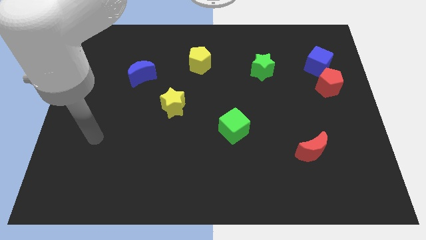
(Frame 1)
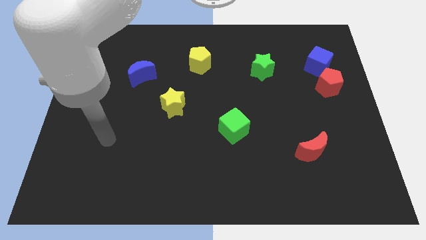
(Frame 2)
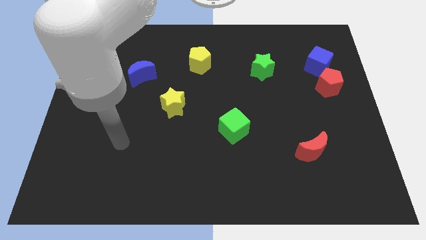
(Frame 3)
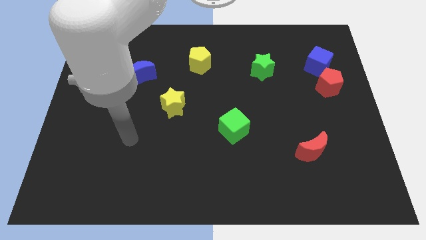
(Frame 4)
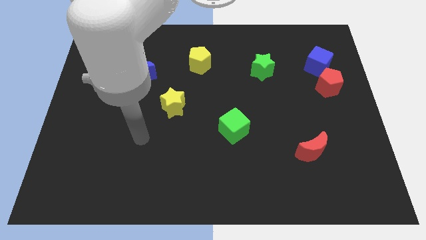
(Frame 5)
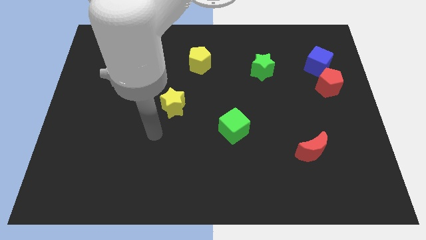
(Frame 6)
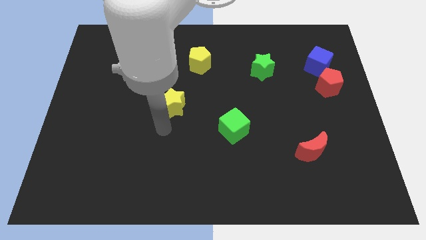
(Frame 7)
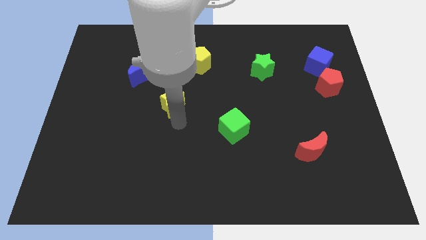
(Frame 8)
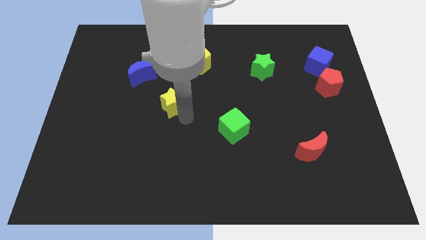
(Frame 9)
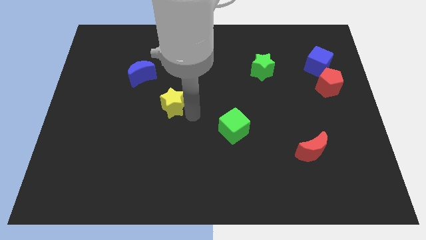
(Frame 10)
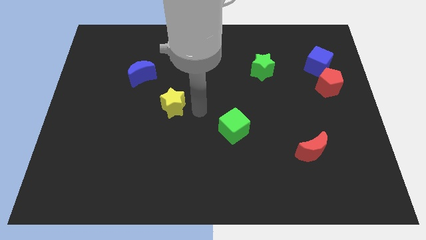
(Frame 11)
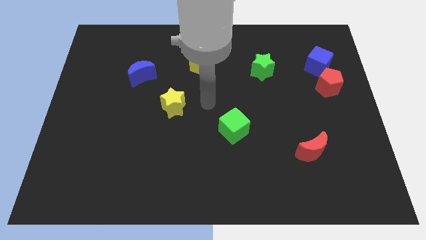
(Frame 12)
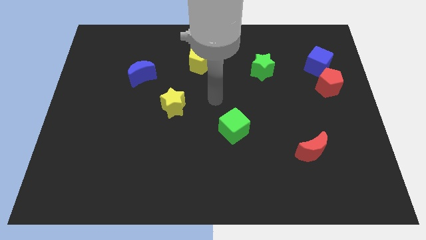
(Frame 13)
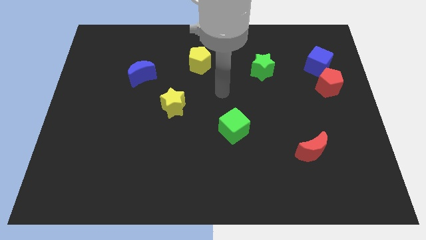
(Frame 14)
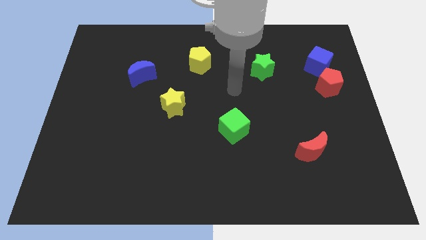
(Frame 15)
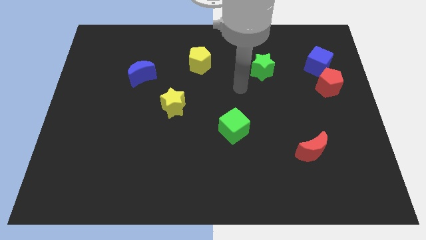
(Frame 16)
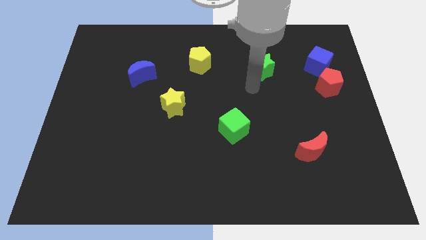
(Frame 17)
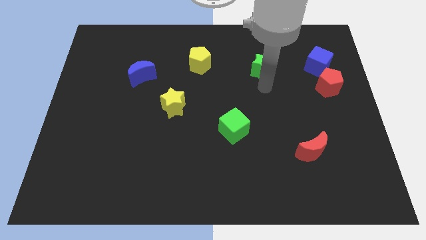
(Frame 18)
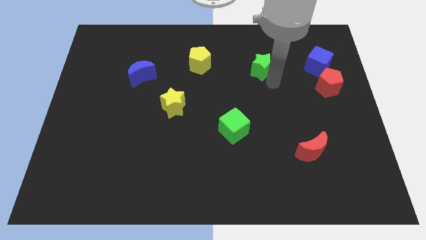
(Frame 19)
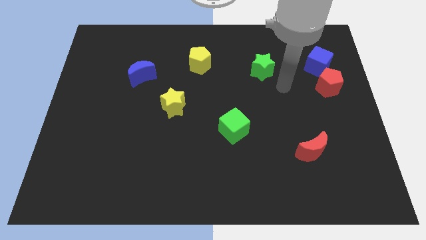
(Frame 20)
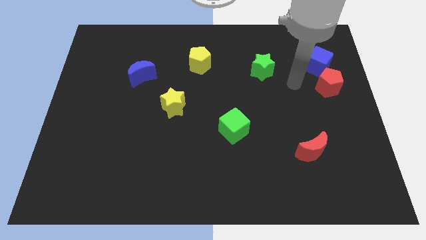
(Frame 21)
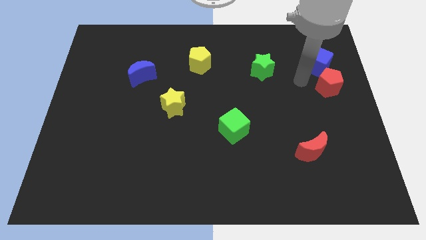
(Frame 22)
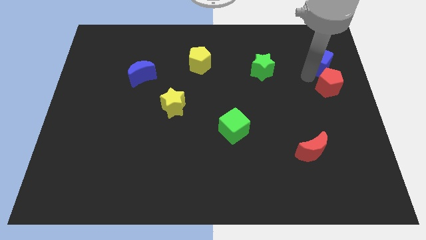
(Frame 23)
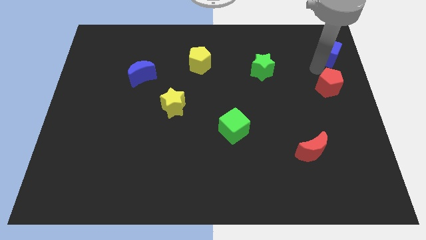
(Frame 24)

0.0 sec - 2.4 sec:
move the red pentagon away from the blue cube

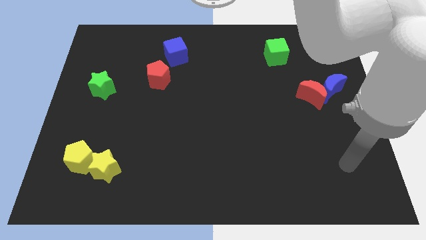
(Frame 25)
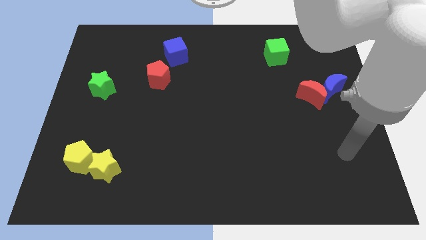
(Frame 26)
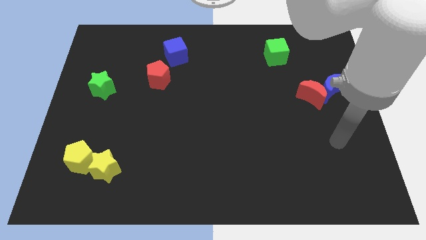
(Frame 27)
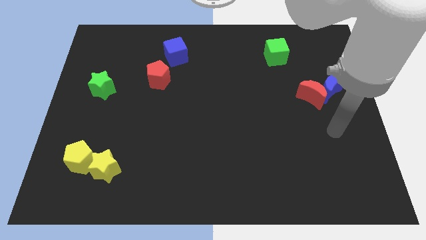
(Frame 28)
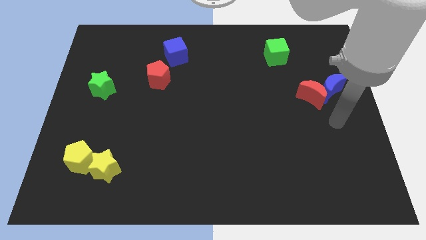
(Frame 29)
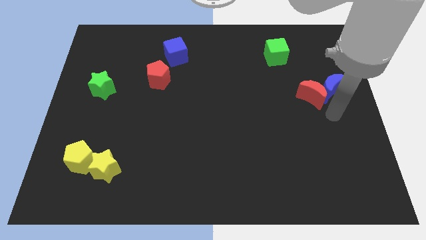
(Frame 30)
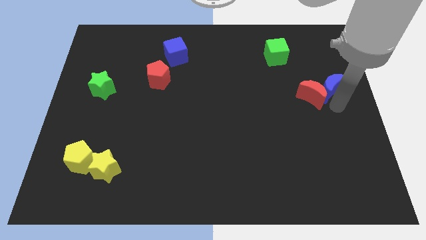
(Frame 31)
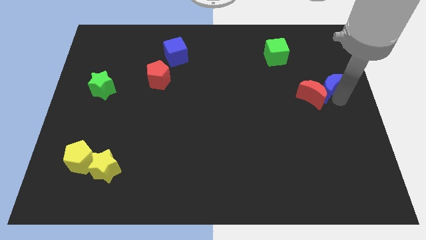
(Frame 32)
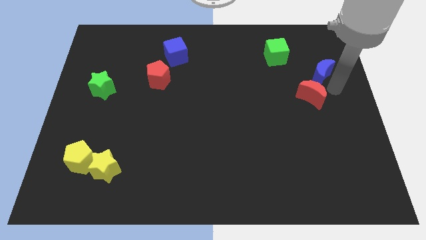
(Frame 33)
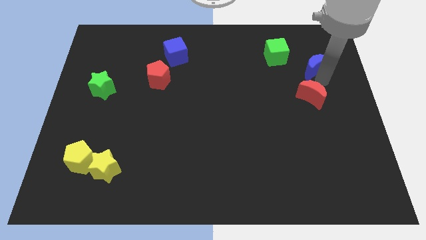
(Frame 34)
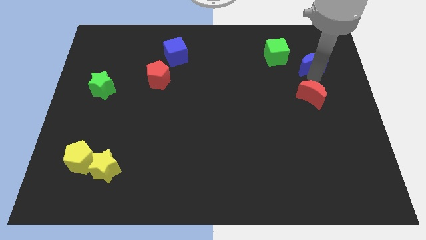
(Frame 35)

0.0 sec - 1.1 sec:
move the red moon away from the blue moon

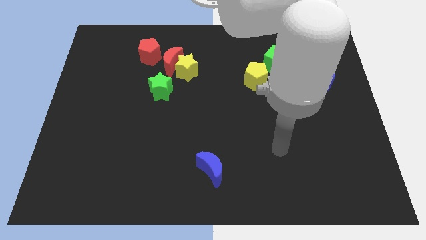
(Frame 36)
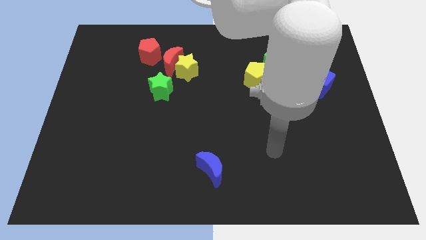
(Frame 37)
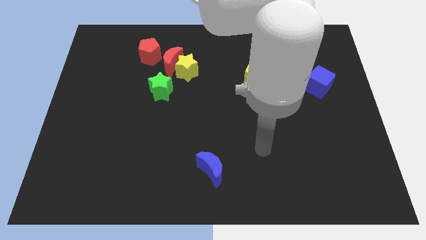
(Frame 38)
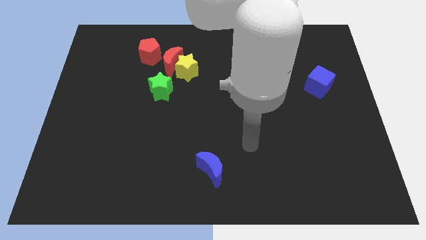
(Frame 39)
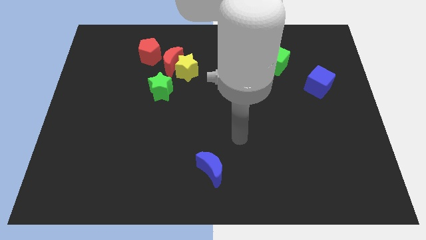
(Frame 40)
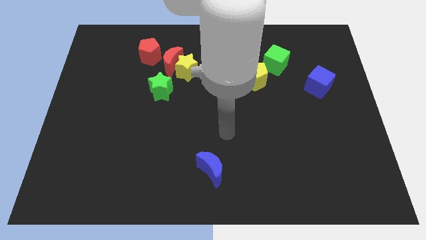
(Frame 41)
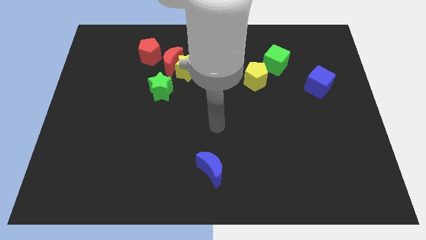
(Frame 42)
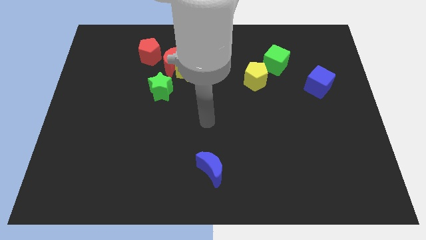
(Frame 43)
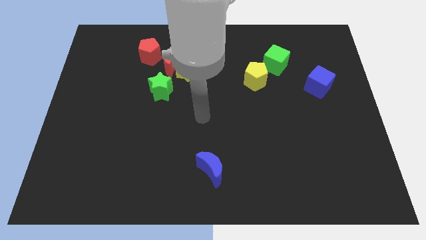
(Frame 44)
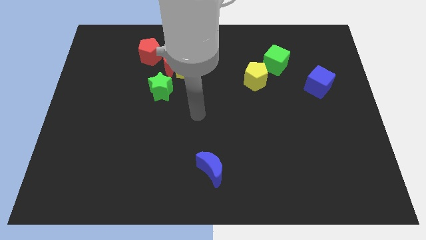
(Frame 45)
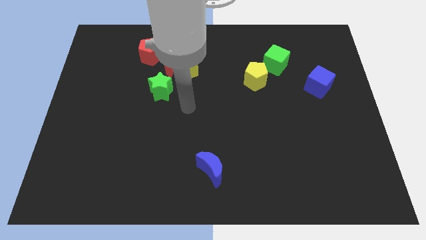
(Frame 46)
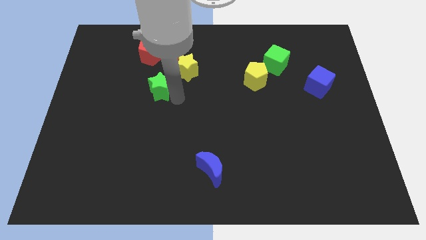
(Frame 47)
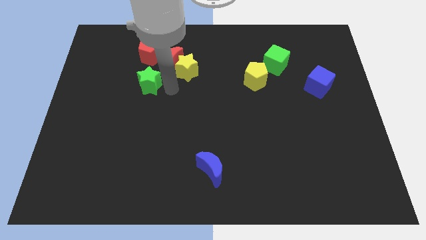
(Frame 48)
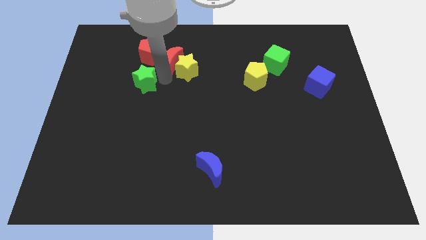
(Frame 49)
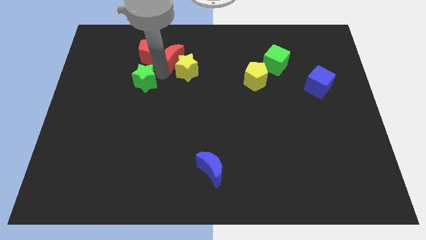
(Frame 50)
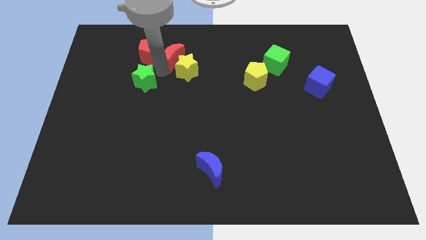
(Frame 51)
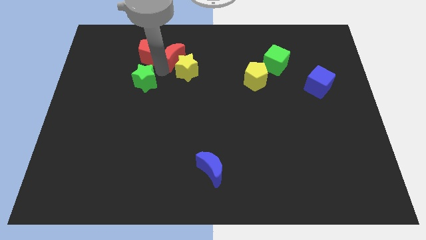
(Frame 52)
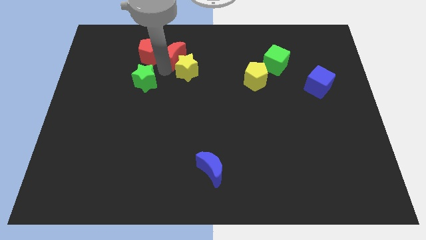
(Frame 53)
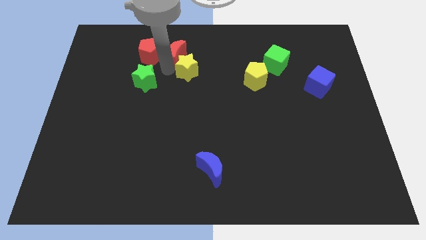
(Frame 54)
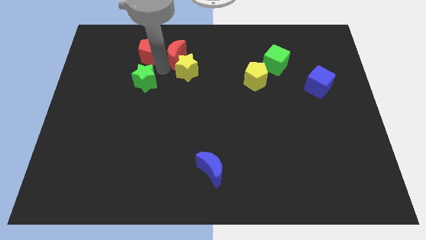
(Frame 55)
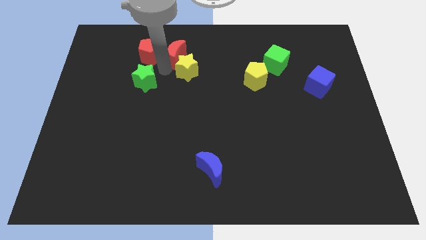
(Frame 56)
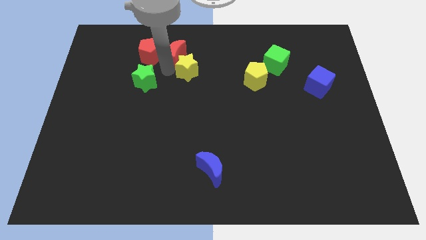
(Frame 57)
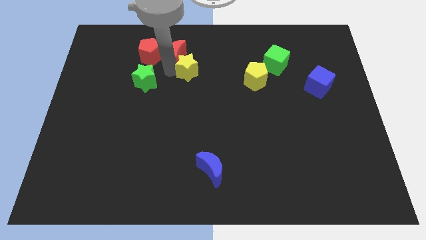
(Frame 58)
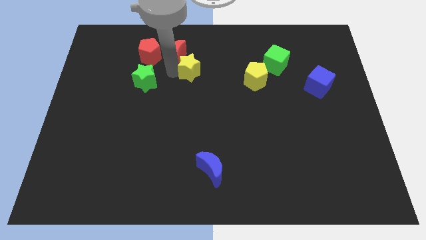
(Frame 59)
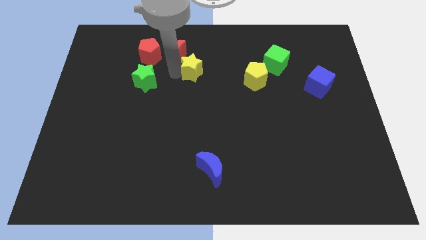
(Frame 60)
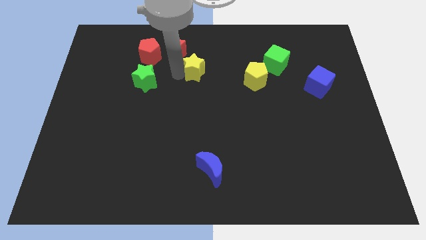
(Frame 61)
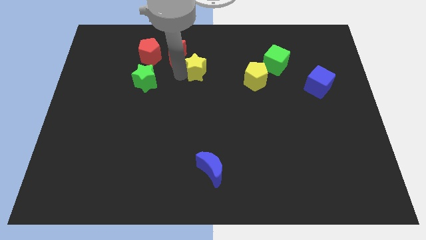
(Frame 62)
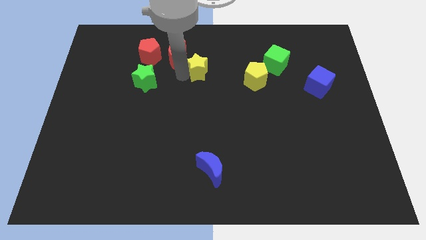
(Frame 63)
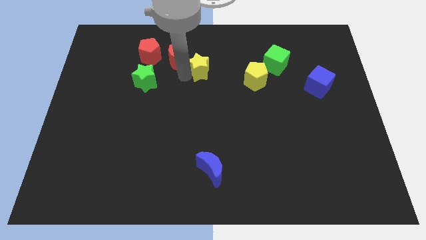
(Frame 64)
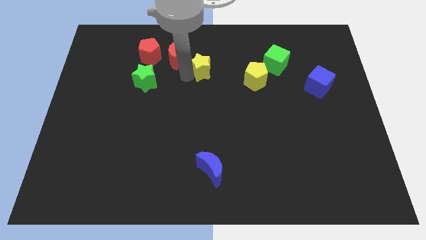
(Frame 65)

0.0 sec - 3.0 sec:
pull the yellow star apart from the red moon and green star

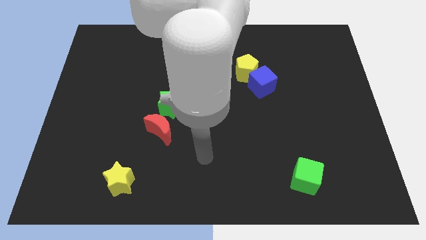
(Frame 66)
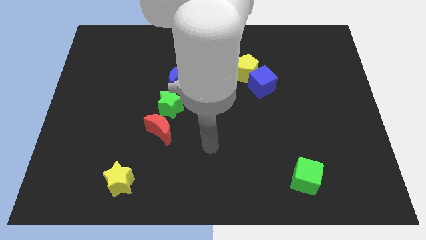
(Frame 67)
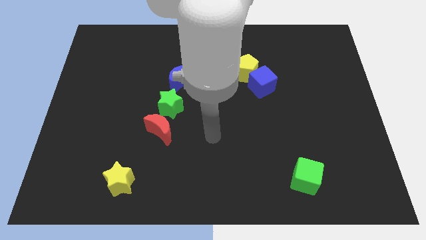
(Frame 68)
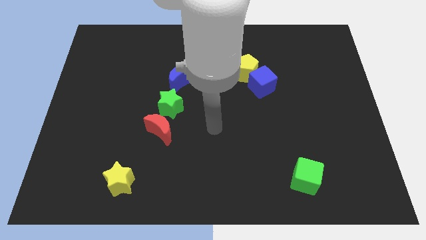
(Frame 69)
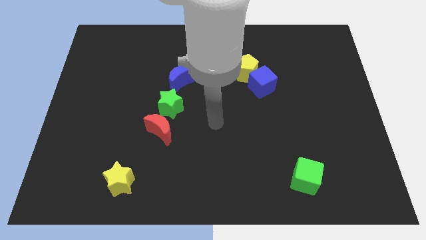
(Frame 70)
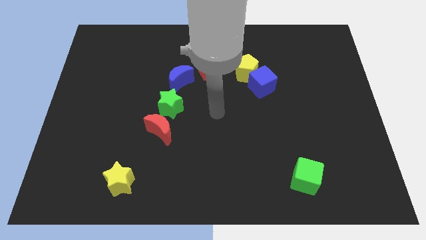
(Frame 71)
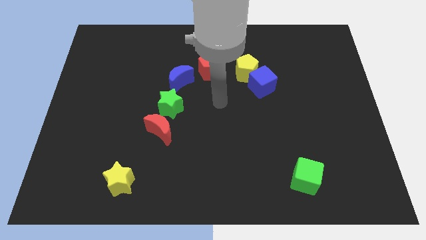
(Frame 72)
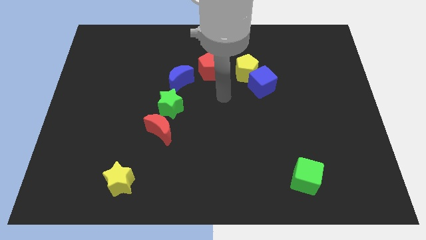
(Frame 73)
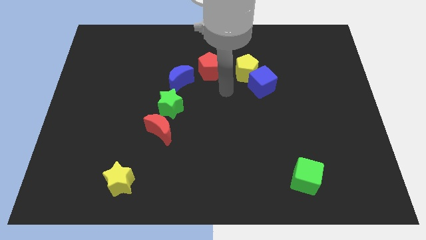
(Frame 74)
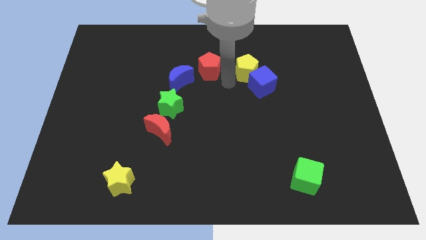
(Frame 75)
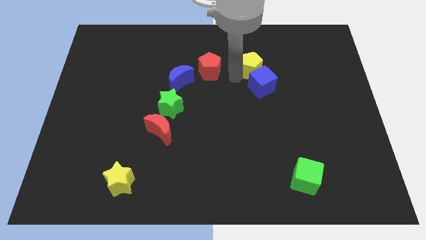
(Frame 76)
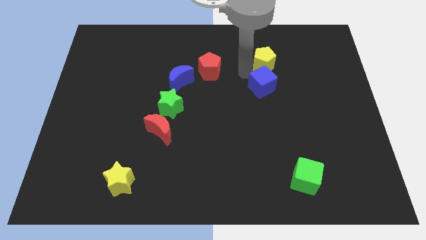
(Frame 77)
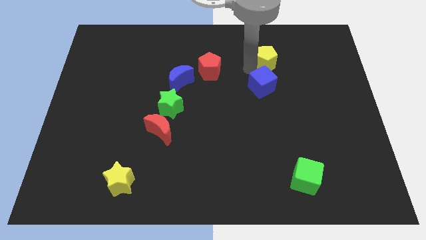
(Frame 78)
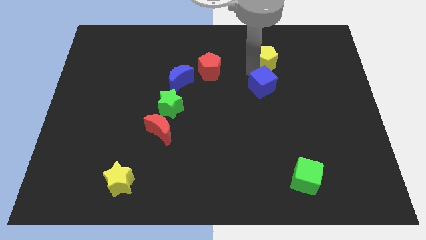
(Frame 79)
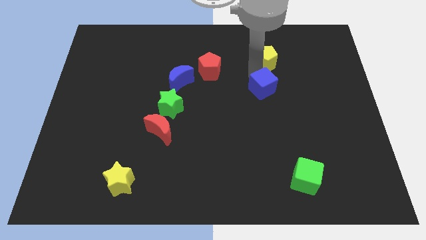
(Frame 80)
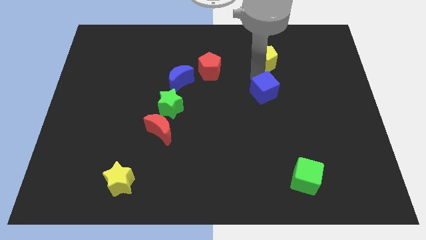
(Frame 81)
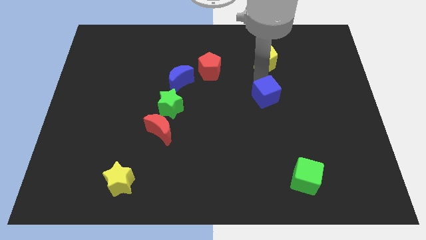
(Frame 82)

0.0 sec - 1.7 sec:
move the blue cube away from the yellow pentagon

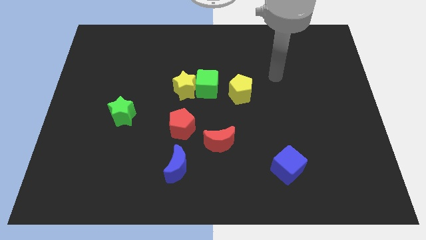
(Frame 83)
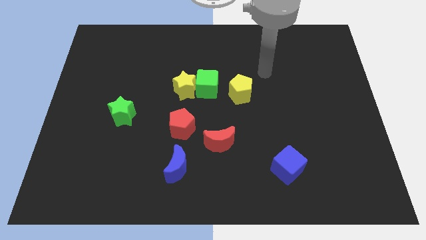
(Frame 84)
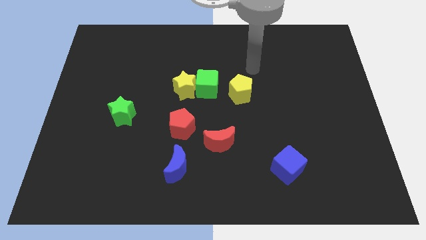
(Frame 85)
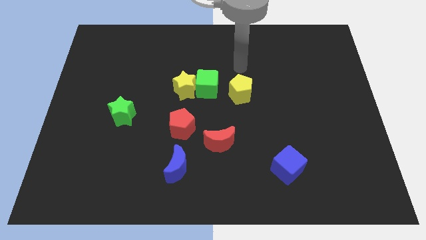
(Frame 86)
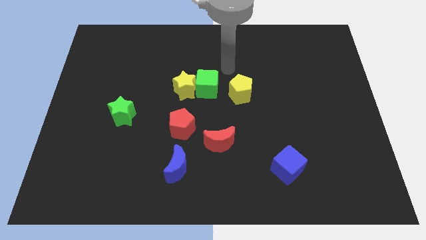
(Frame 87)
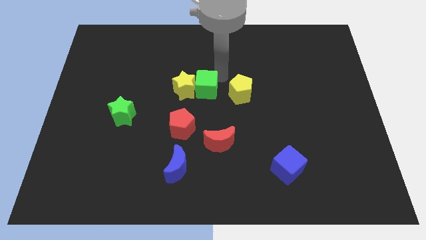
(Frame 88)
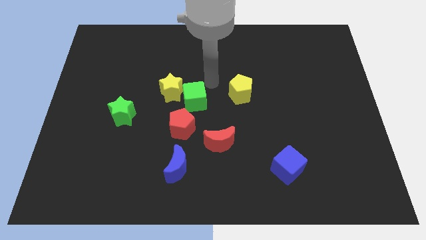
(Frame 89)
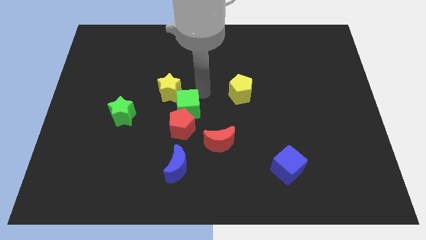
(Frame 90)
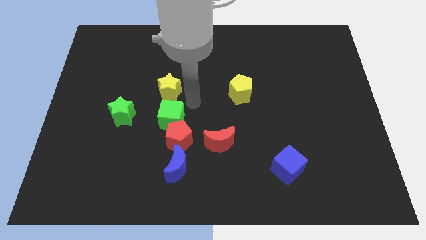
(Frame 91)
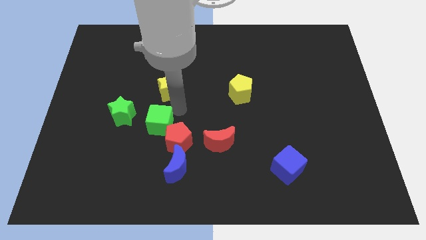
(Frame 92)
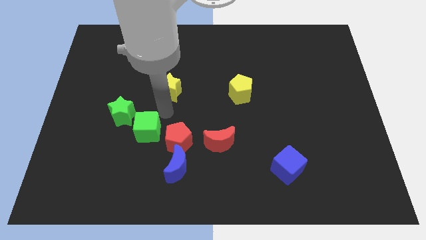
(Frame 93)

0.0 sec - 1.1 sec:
pull the yellow star apart from the green cube
